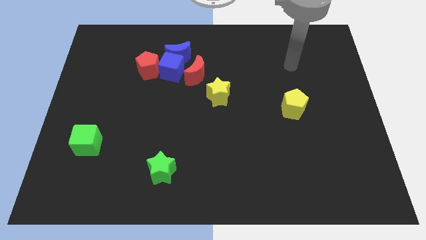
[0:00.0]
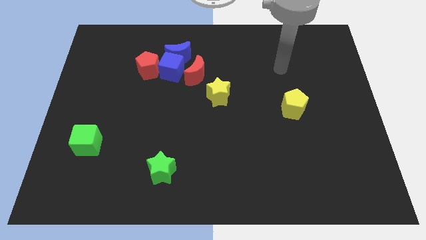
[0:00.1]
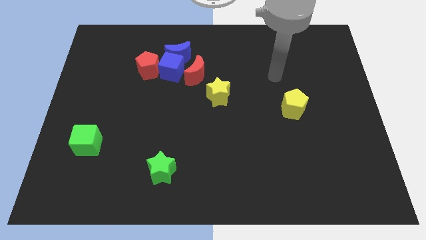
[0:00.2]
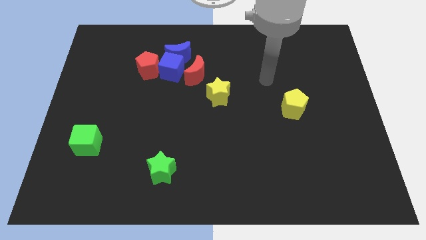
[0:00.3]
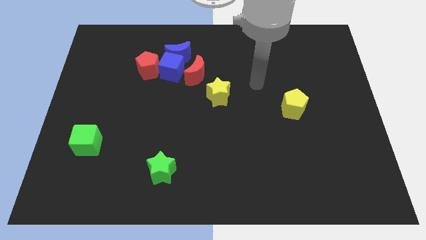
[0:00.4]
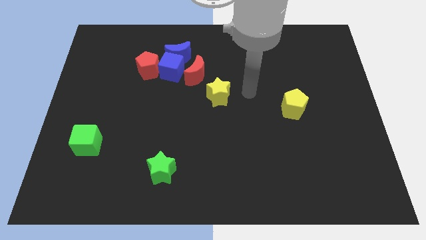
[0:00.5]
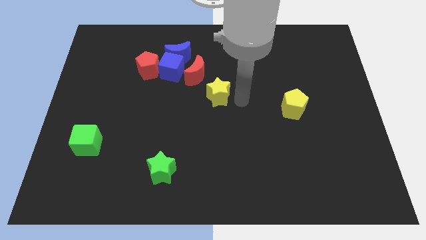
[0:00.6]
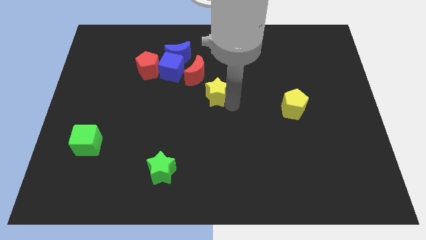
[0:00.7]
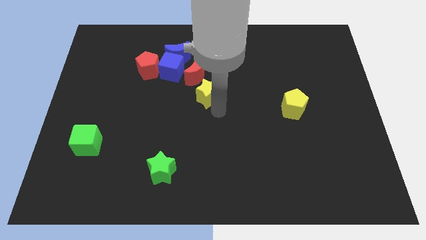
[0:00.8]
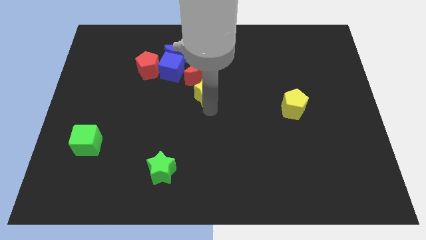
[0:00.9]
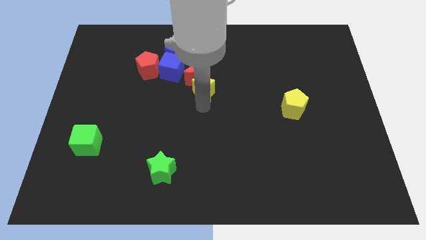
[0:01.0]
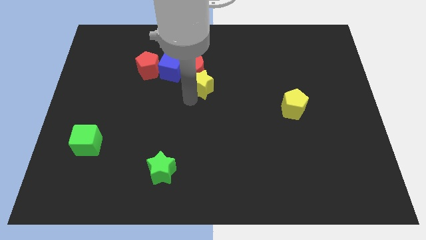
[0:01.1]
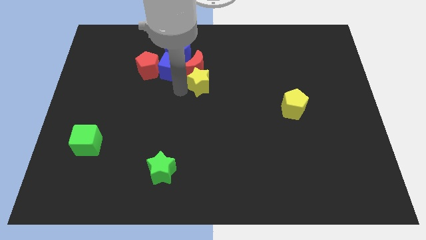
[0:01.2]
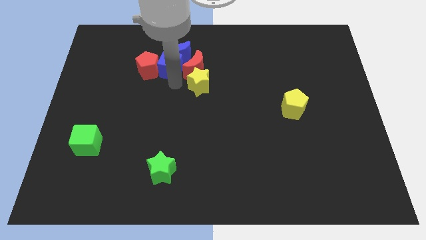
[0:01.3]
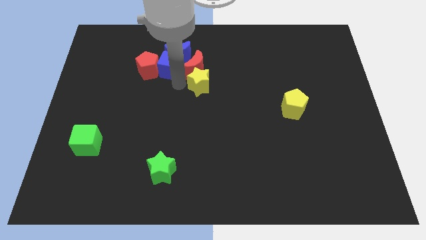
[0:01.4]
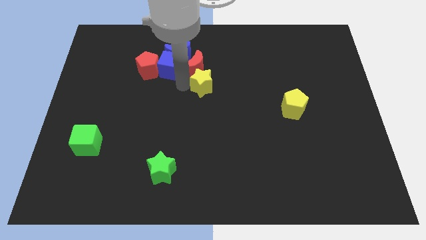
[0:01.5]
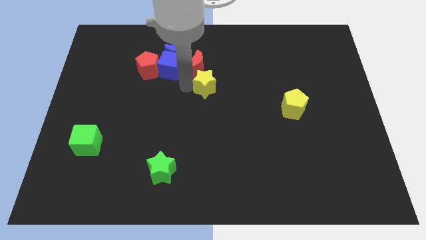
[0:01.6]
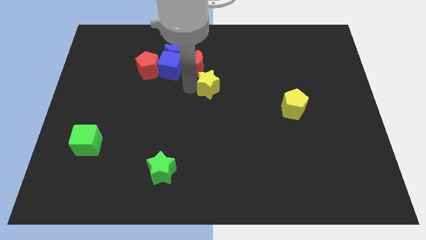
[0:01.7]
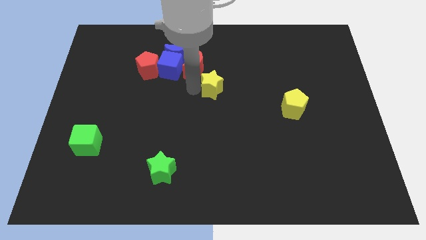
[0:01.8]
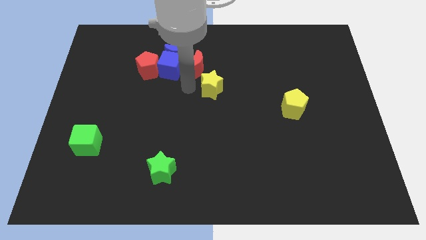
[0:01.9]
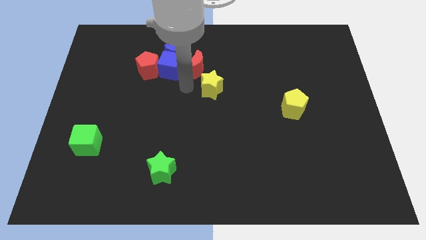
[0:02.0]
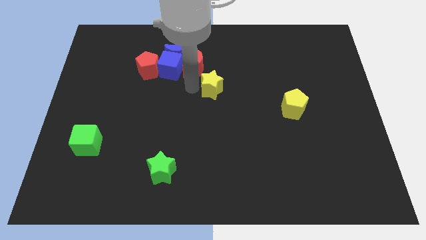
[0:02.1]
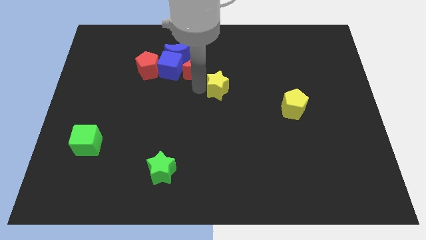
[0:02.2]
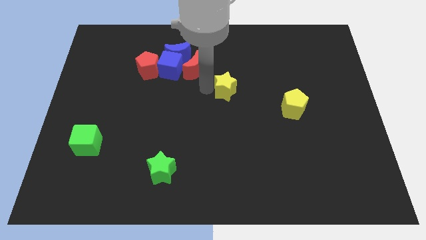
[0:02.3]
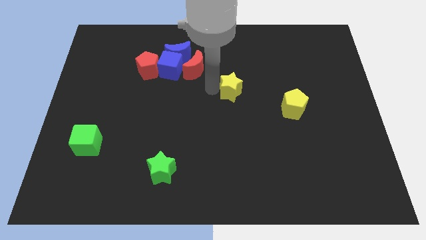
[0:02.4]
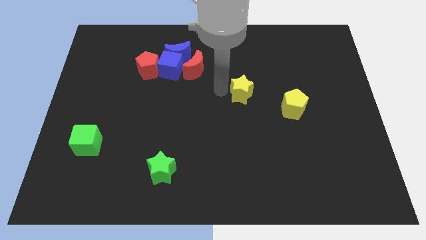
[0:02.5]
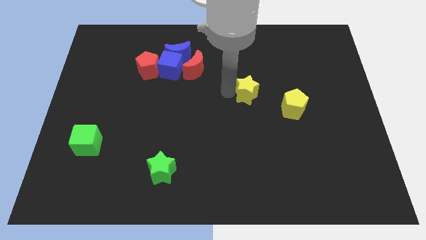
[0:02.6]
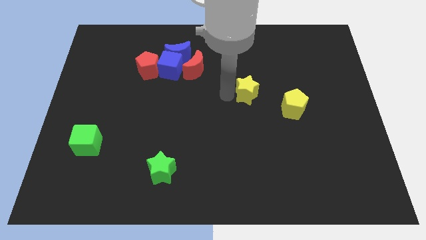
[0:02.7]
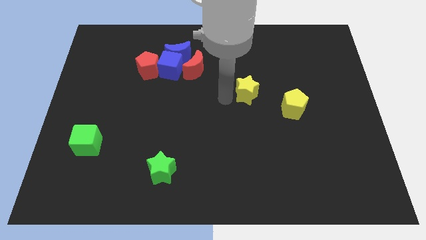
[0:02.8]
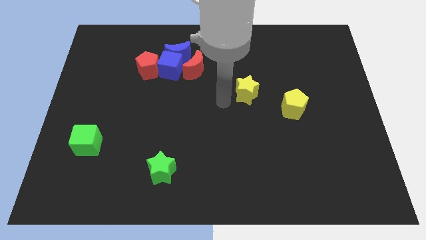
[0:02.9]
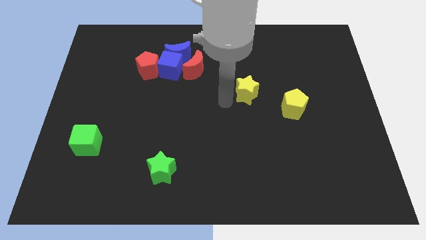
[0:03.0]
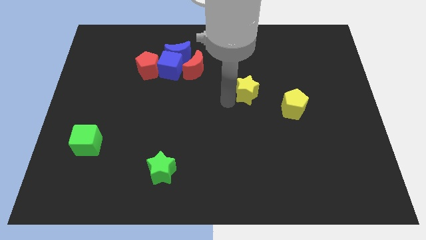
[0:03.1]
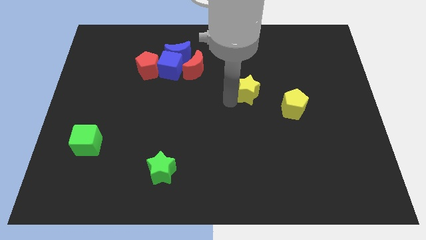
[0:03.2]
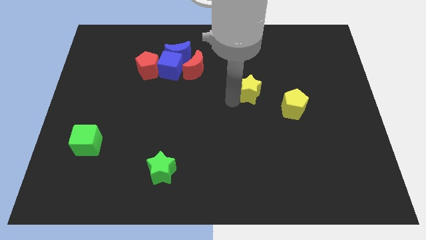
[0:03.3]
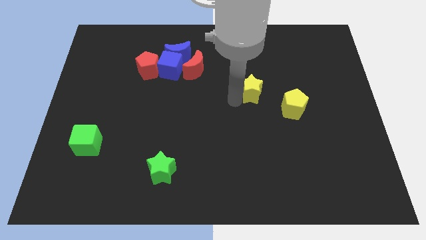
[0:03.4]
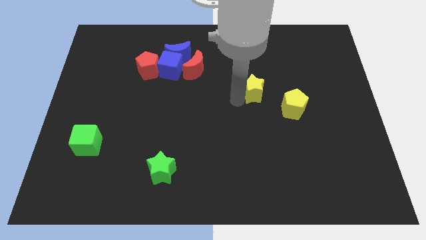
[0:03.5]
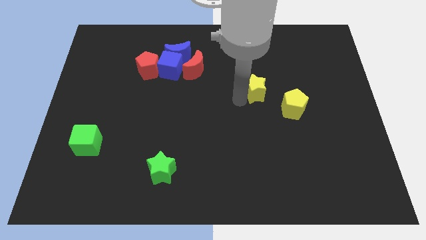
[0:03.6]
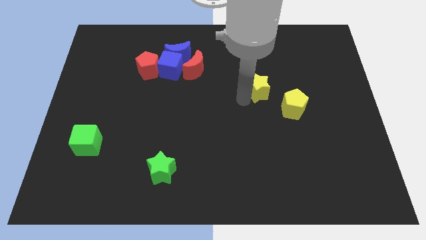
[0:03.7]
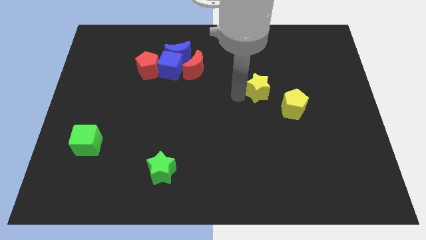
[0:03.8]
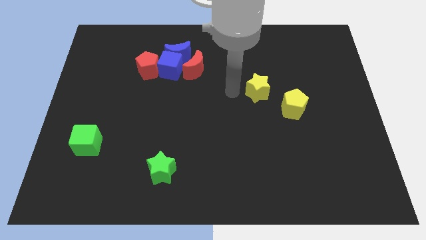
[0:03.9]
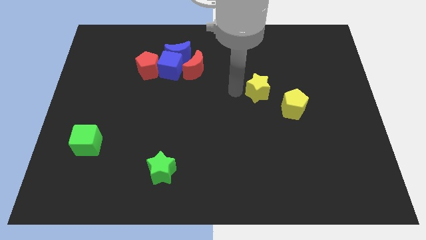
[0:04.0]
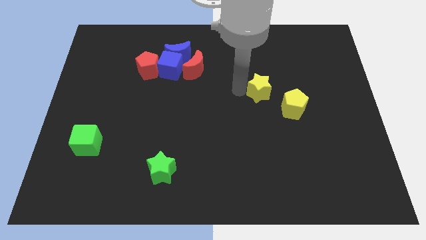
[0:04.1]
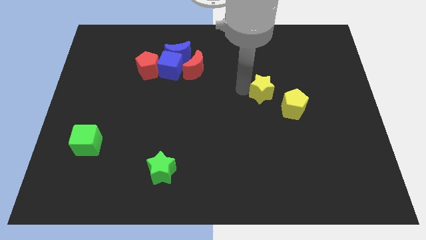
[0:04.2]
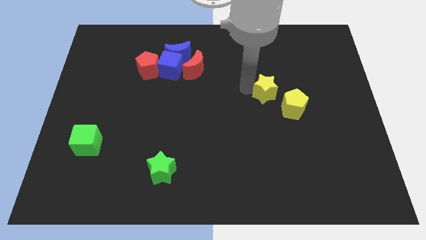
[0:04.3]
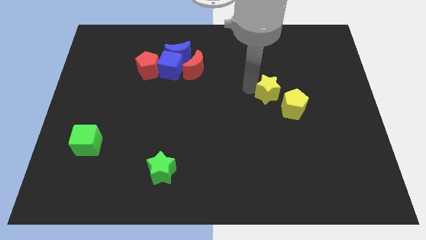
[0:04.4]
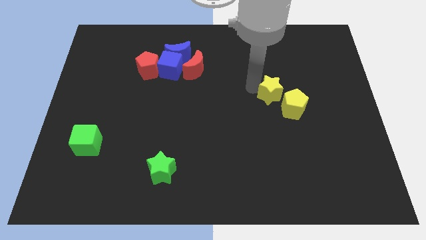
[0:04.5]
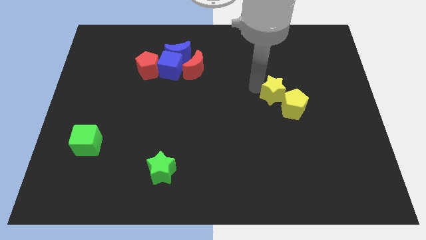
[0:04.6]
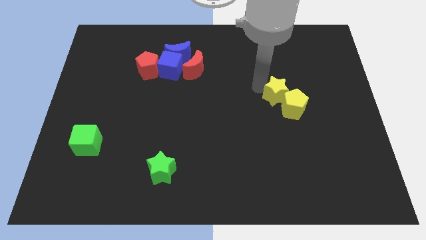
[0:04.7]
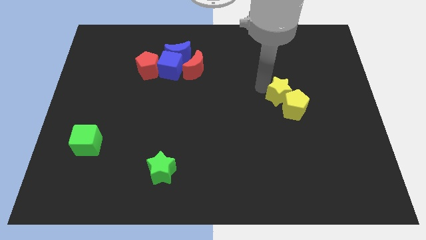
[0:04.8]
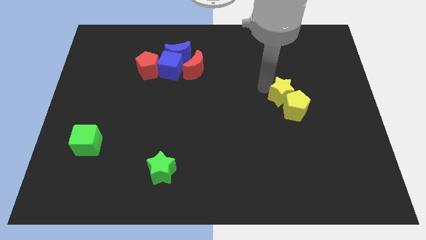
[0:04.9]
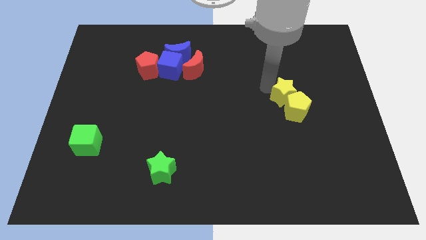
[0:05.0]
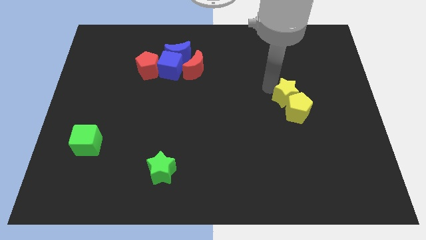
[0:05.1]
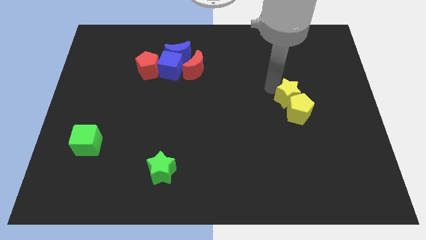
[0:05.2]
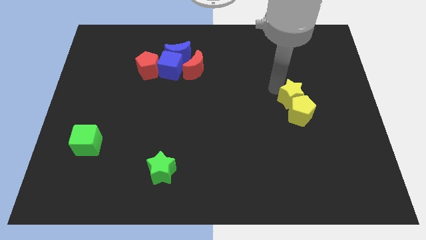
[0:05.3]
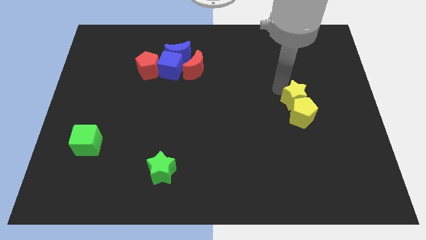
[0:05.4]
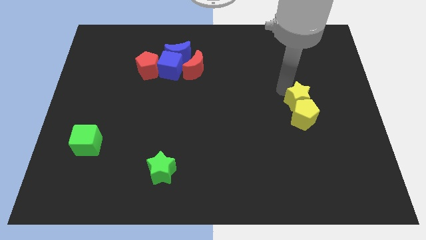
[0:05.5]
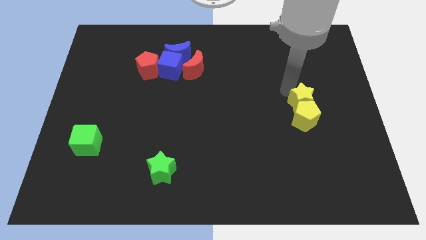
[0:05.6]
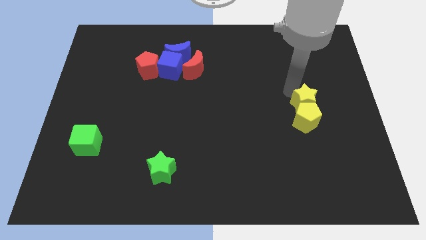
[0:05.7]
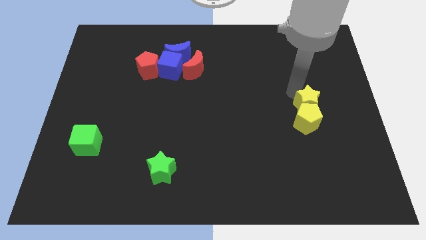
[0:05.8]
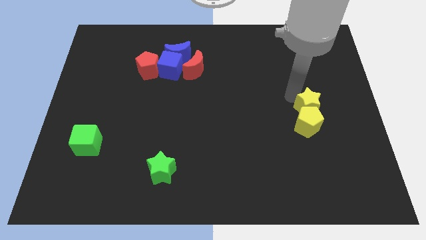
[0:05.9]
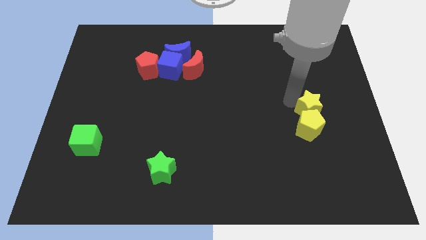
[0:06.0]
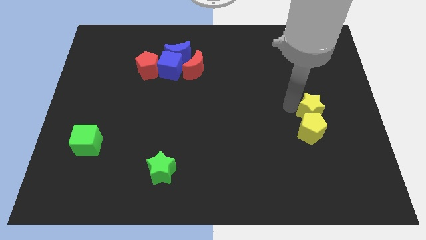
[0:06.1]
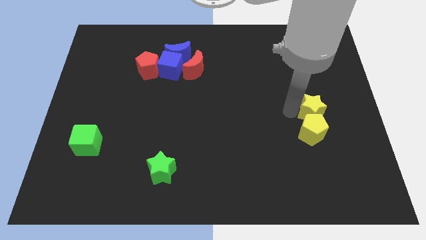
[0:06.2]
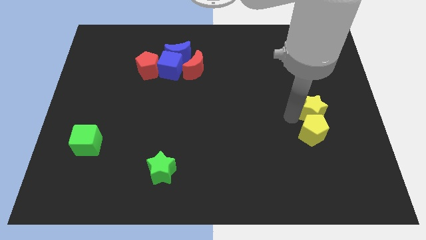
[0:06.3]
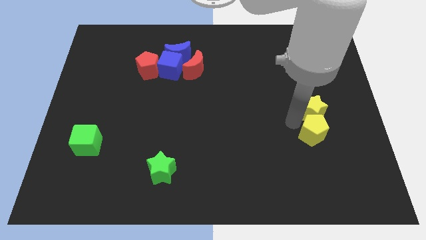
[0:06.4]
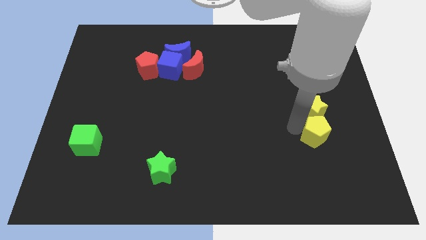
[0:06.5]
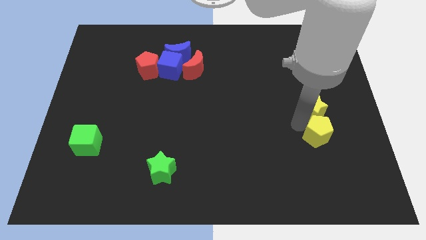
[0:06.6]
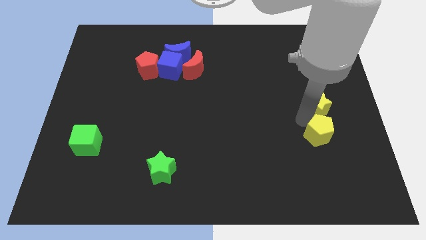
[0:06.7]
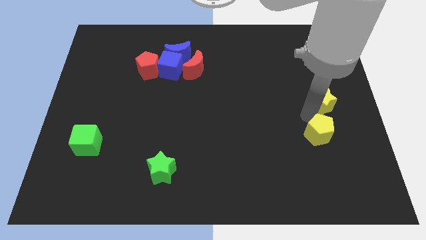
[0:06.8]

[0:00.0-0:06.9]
push the yellow star to the right side of the board
